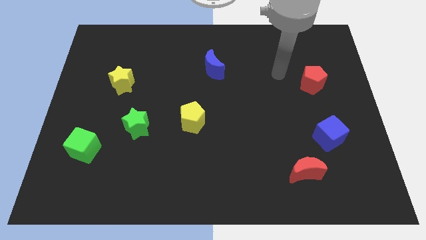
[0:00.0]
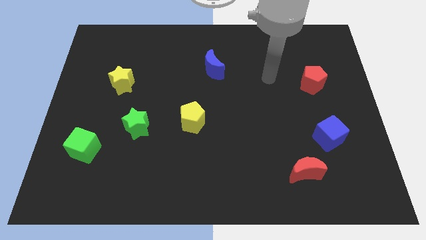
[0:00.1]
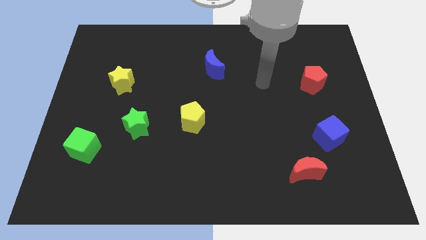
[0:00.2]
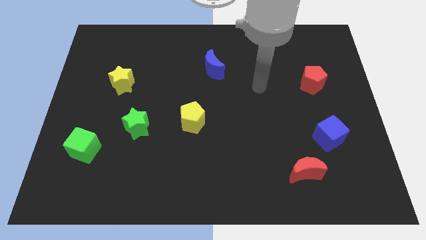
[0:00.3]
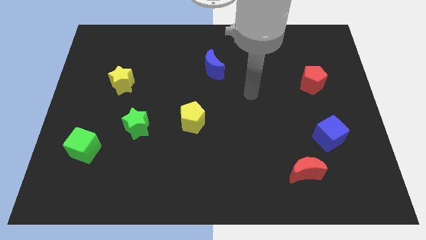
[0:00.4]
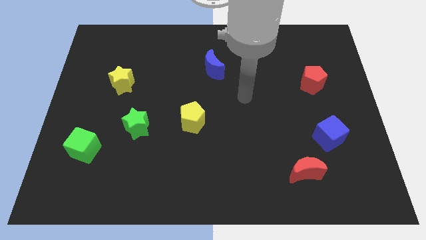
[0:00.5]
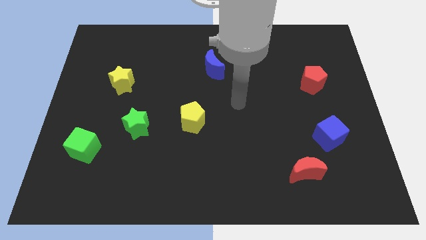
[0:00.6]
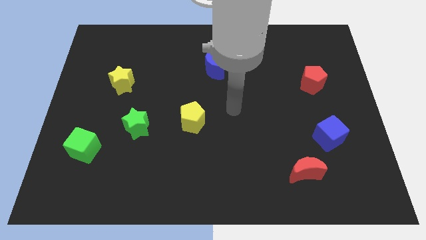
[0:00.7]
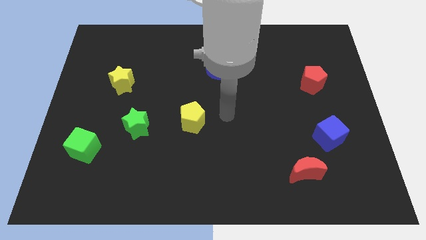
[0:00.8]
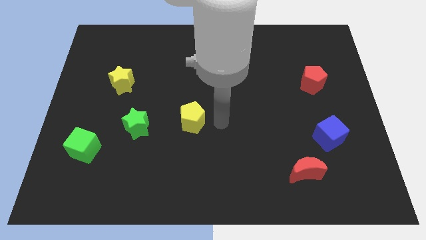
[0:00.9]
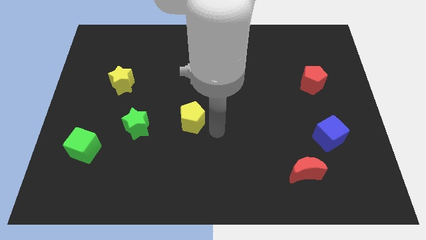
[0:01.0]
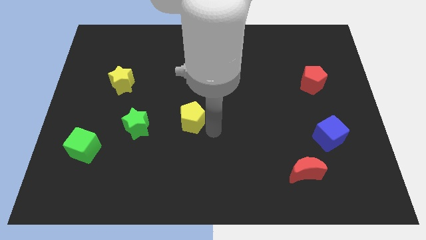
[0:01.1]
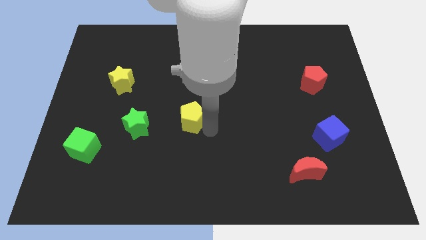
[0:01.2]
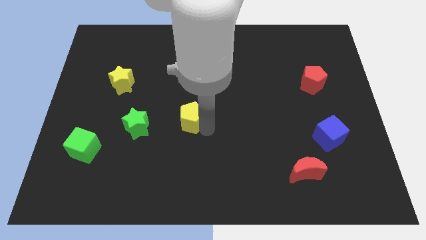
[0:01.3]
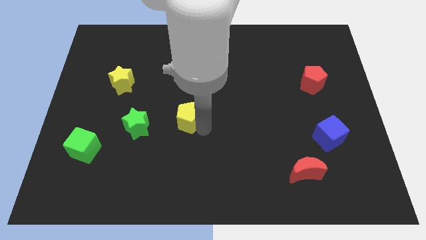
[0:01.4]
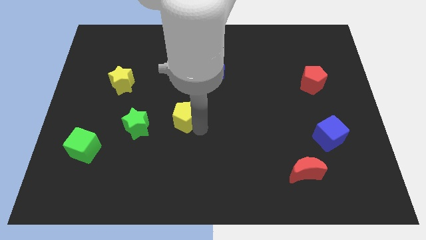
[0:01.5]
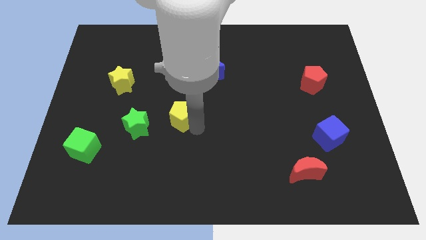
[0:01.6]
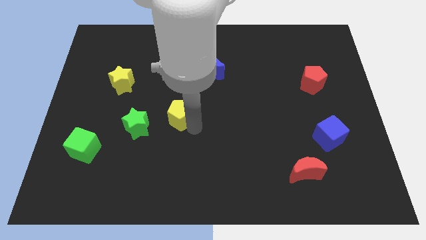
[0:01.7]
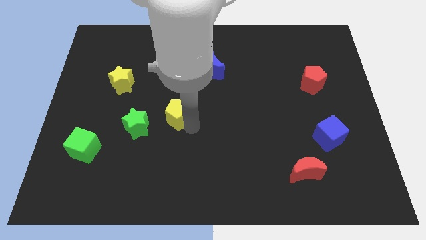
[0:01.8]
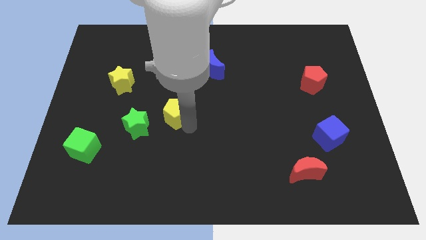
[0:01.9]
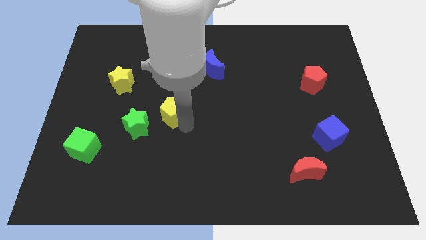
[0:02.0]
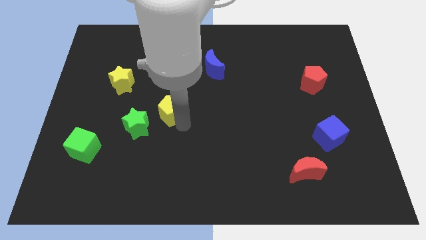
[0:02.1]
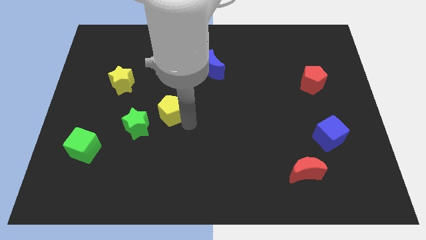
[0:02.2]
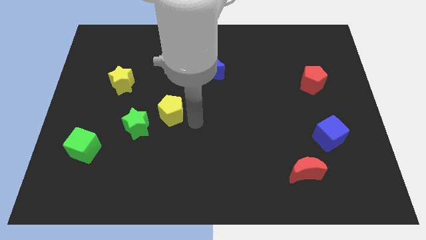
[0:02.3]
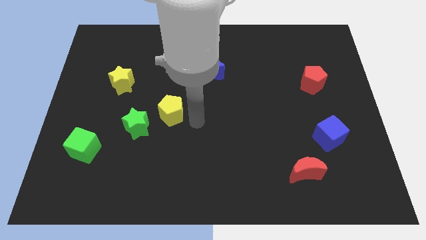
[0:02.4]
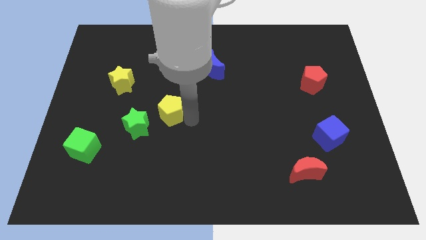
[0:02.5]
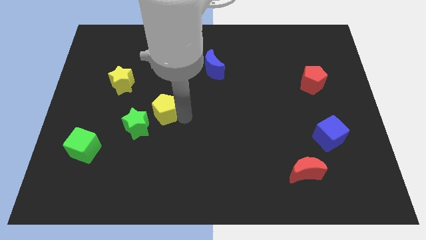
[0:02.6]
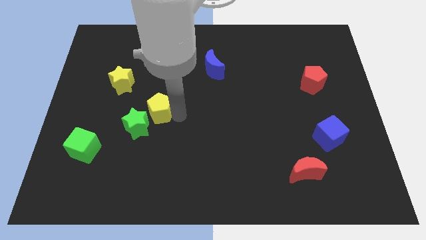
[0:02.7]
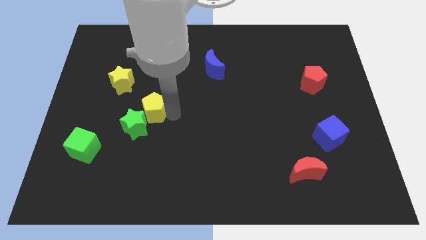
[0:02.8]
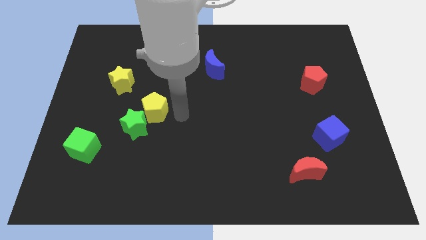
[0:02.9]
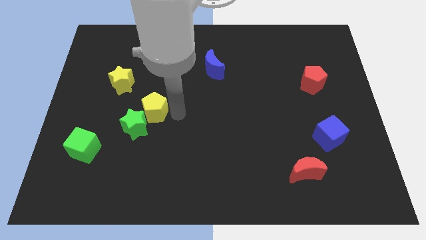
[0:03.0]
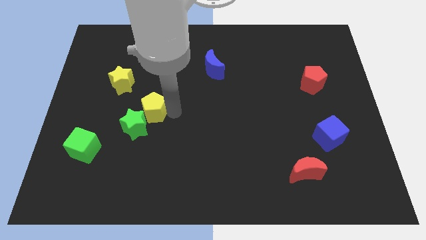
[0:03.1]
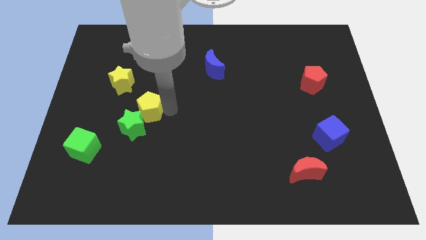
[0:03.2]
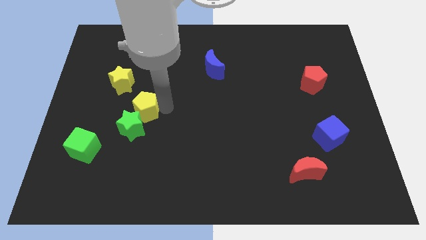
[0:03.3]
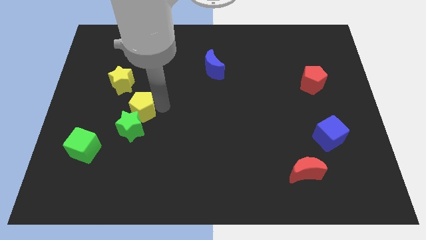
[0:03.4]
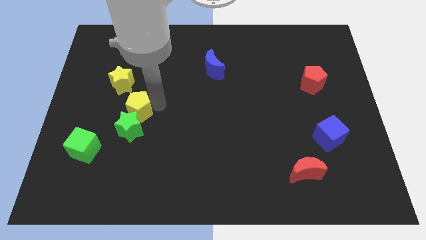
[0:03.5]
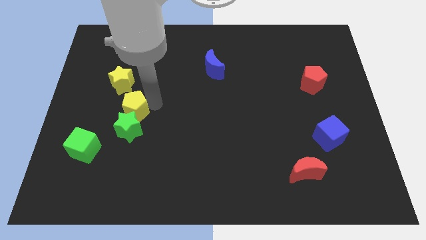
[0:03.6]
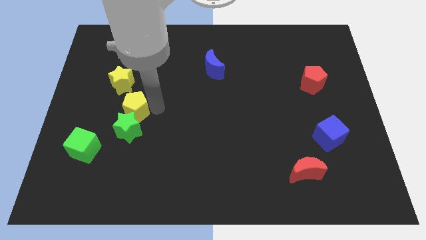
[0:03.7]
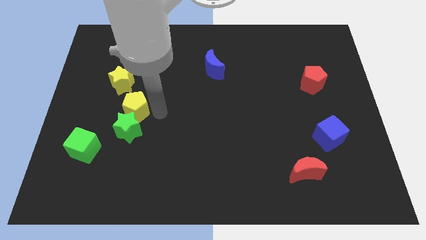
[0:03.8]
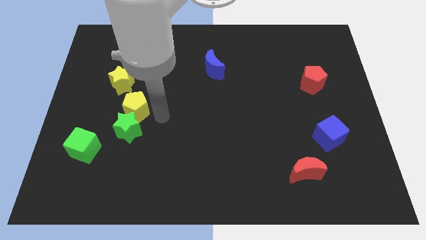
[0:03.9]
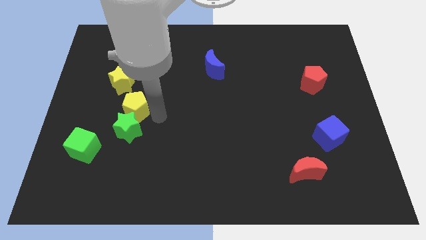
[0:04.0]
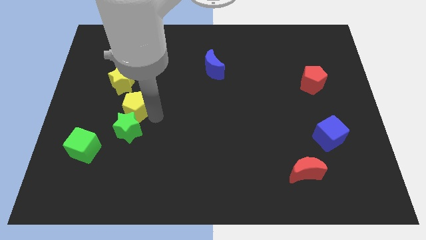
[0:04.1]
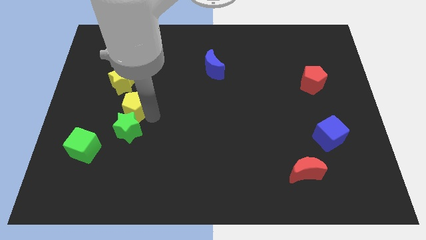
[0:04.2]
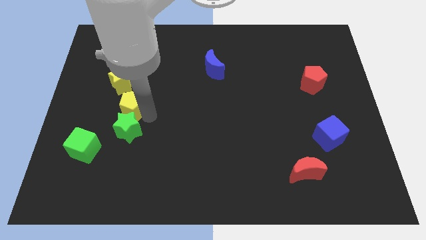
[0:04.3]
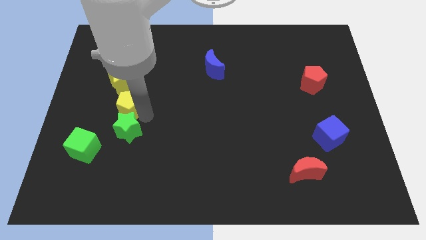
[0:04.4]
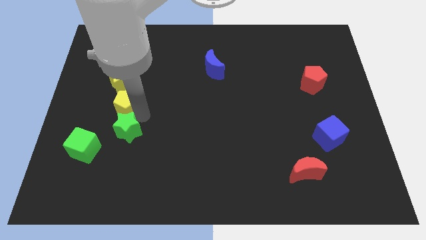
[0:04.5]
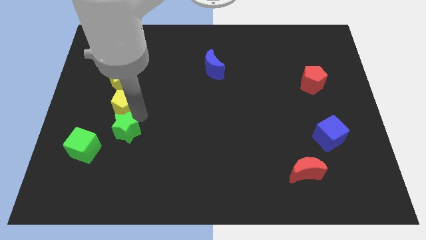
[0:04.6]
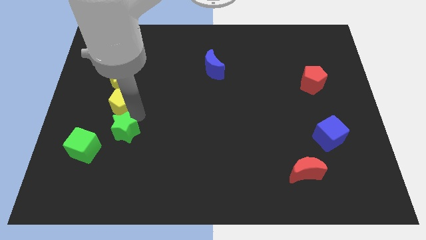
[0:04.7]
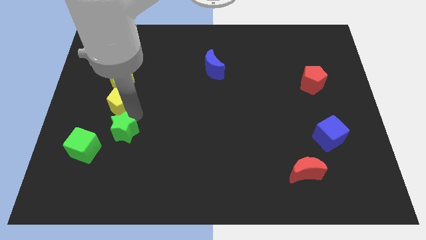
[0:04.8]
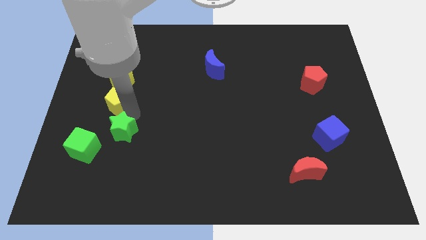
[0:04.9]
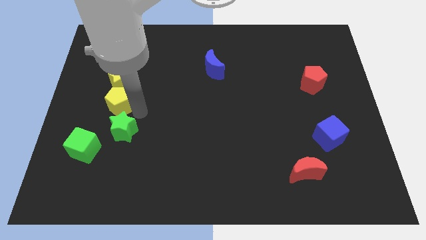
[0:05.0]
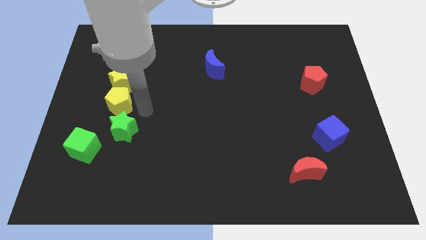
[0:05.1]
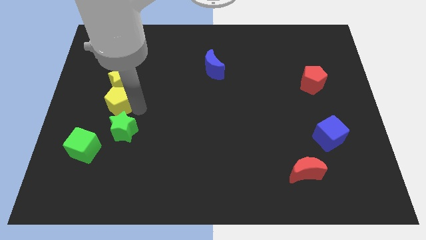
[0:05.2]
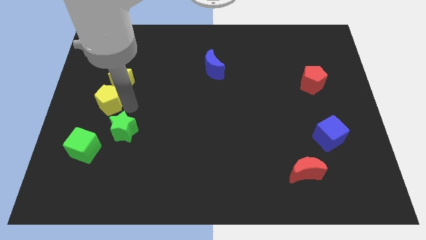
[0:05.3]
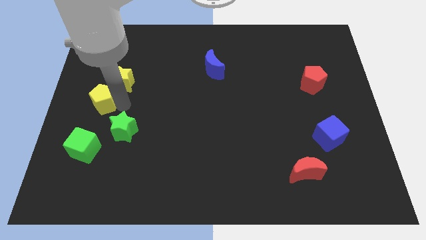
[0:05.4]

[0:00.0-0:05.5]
push the yellow pentagon to the left side of the board

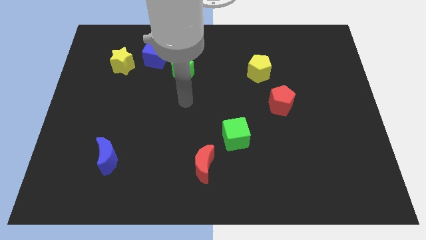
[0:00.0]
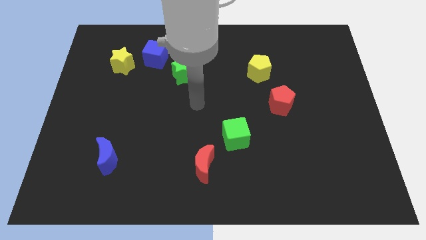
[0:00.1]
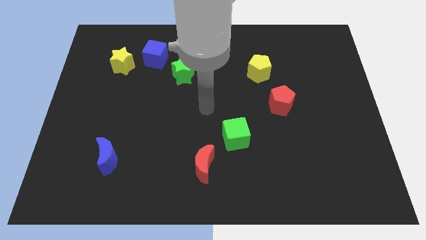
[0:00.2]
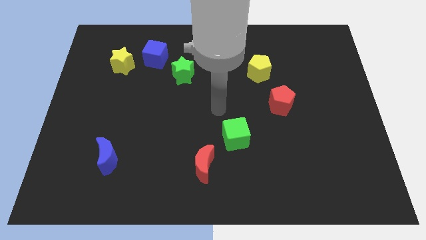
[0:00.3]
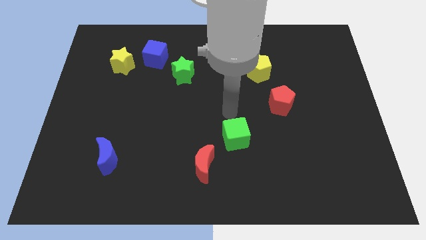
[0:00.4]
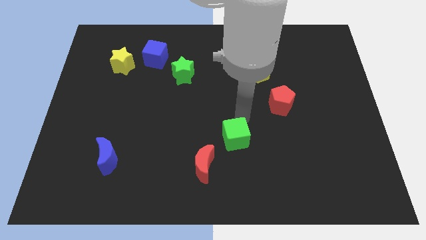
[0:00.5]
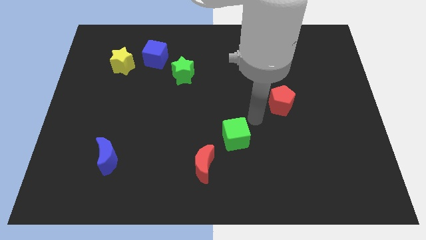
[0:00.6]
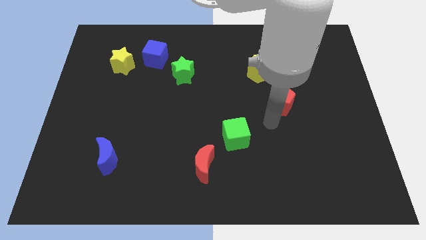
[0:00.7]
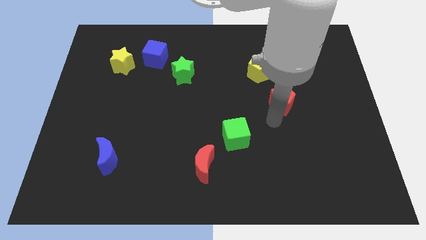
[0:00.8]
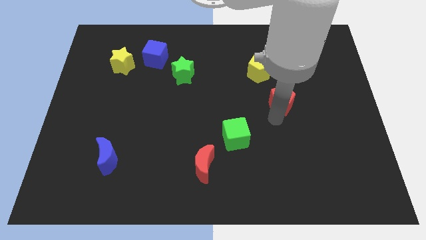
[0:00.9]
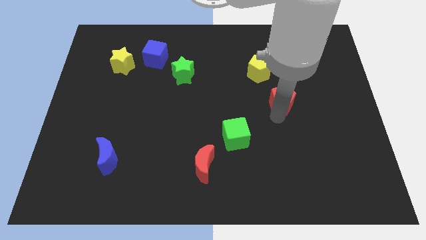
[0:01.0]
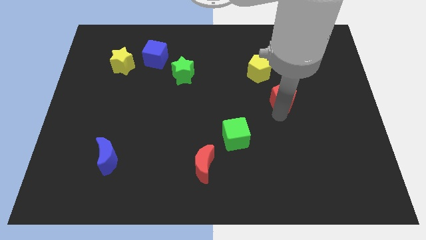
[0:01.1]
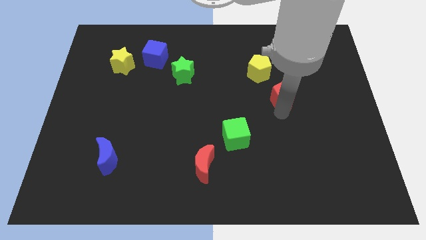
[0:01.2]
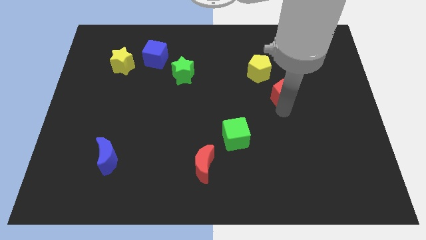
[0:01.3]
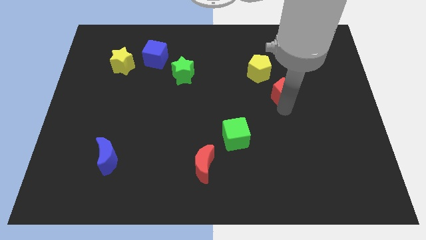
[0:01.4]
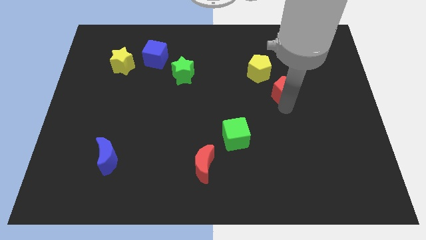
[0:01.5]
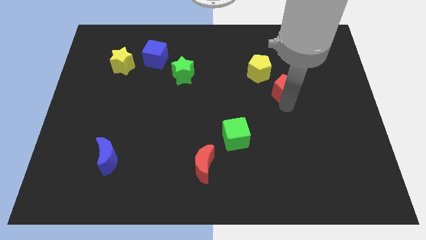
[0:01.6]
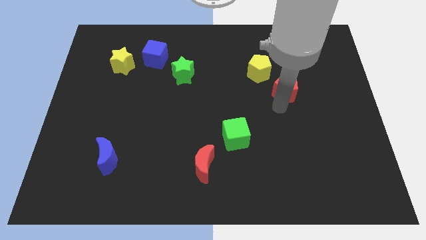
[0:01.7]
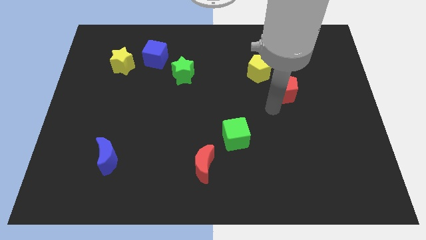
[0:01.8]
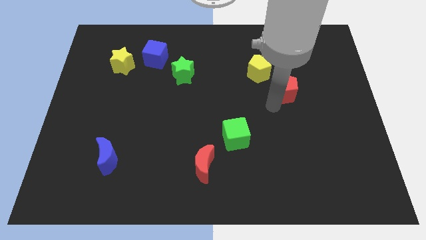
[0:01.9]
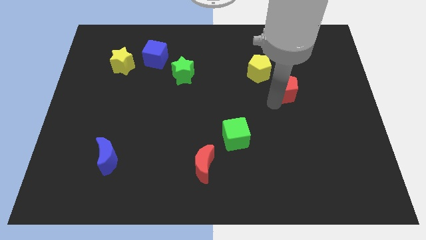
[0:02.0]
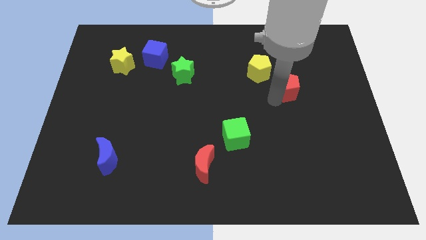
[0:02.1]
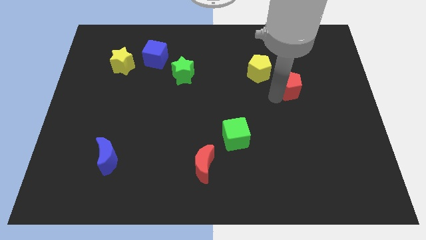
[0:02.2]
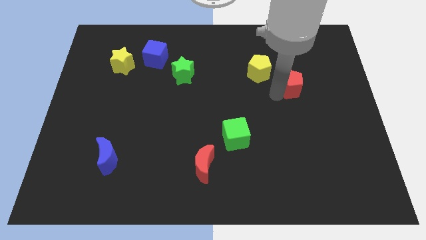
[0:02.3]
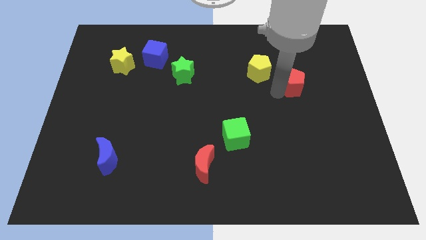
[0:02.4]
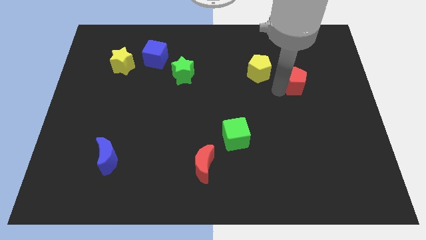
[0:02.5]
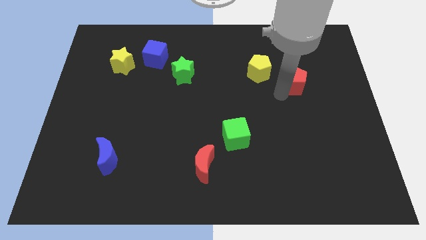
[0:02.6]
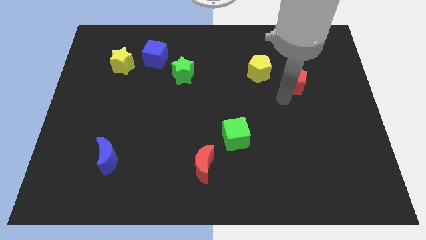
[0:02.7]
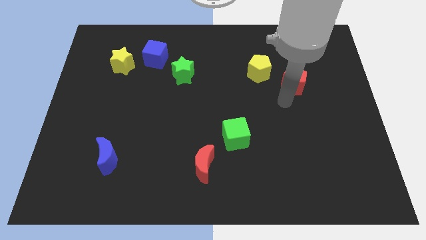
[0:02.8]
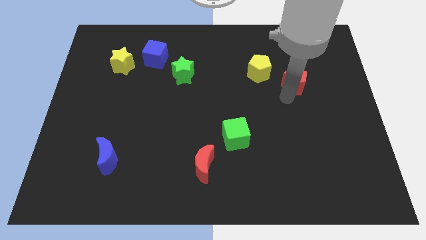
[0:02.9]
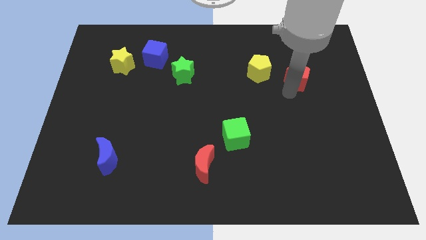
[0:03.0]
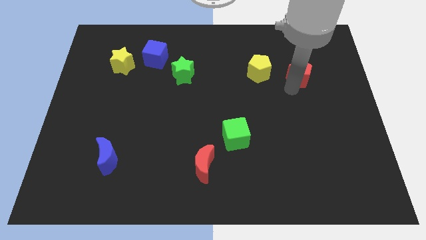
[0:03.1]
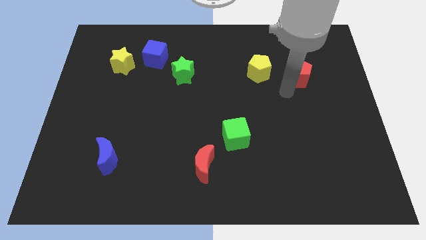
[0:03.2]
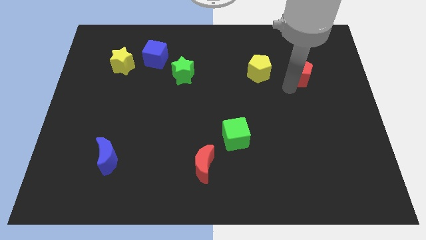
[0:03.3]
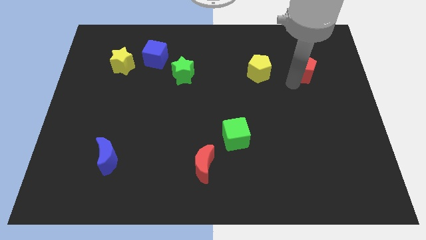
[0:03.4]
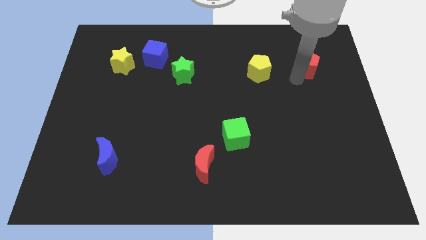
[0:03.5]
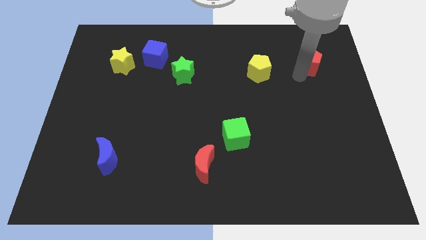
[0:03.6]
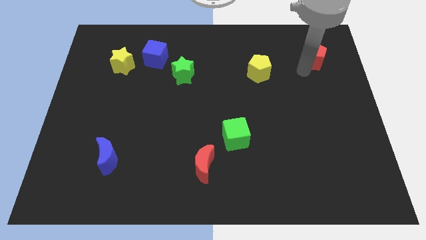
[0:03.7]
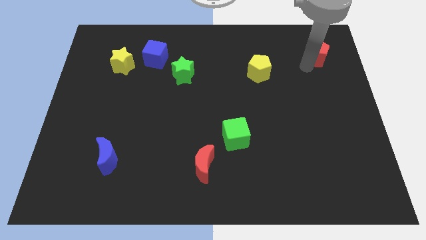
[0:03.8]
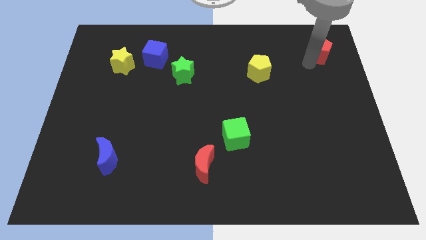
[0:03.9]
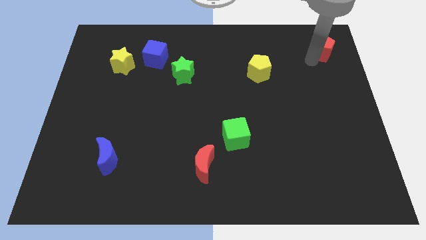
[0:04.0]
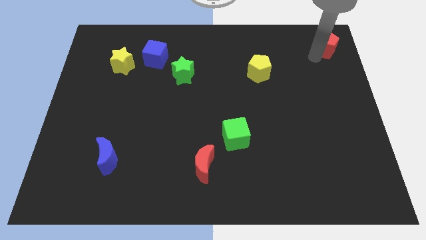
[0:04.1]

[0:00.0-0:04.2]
put the red pentagon to the top right corner
